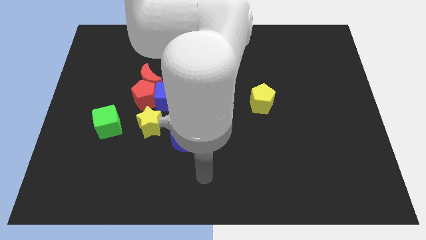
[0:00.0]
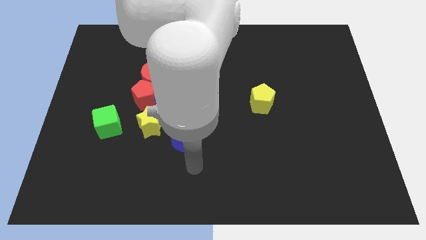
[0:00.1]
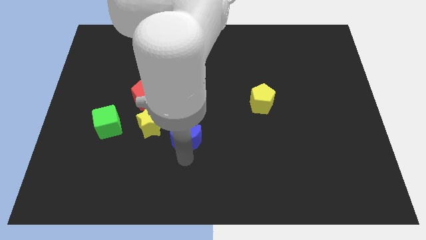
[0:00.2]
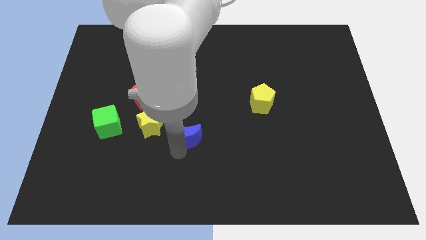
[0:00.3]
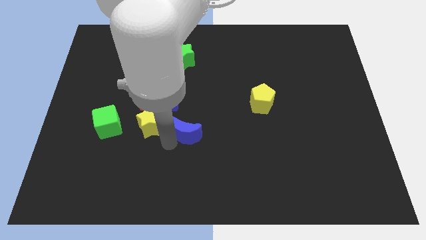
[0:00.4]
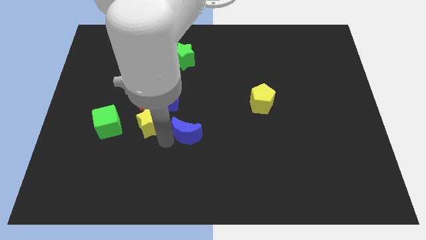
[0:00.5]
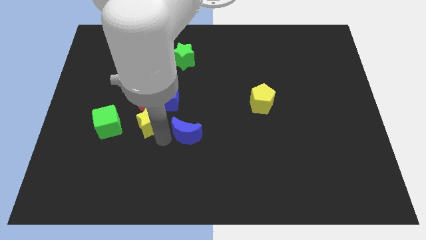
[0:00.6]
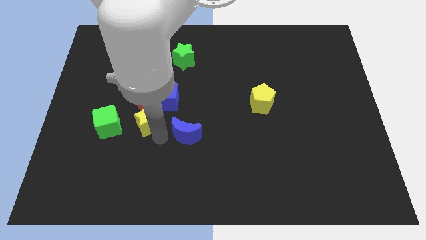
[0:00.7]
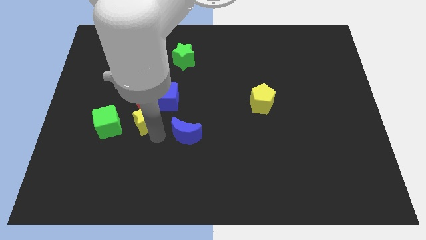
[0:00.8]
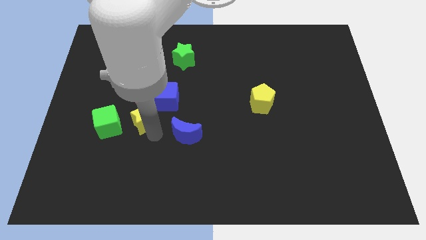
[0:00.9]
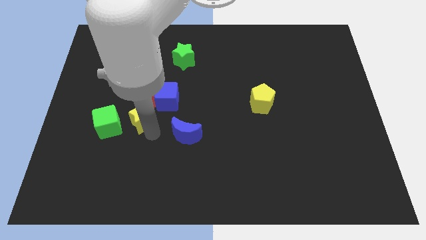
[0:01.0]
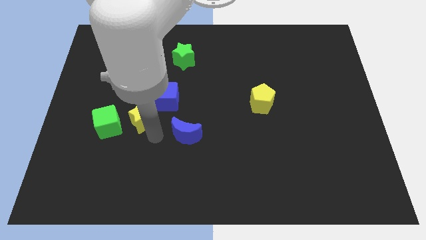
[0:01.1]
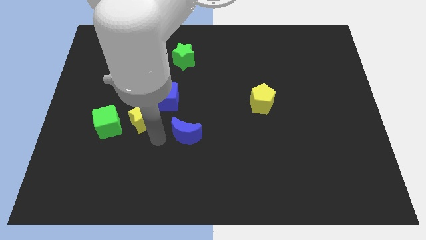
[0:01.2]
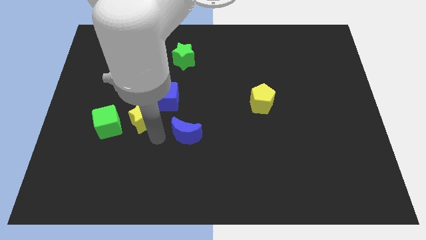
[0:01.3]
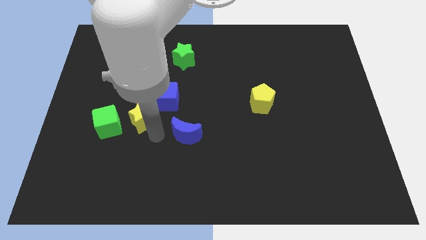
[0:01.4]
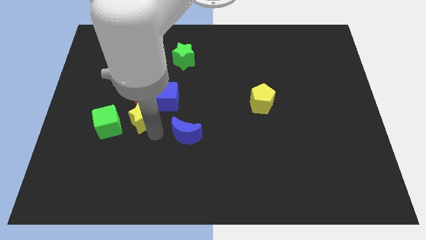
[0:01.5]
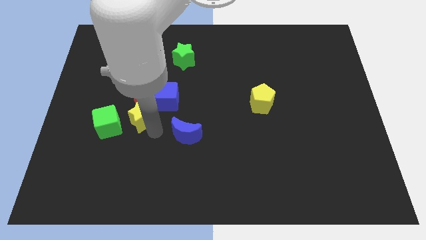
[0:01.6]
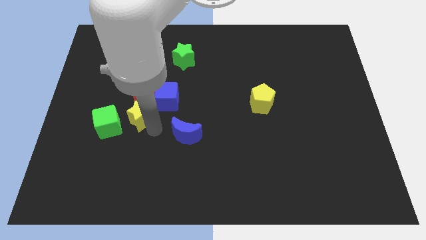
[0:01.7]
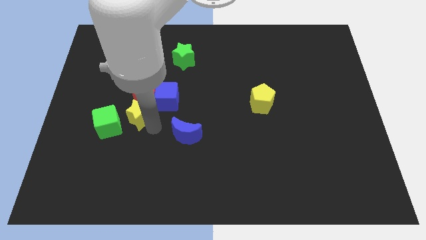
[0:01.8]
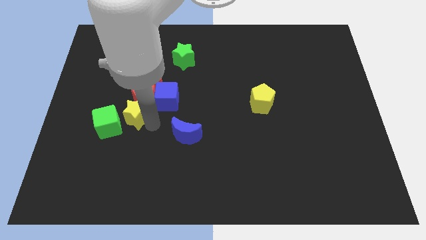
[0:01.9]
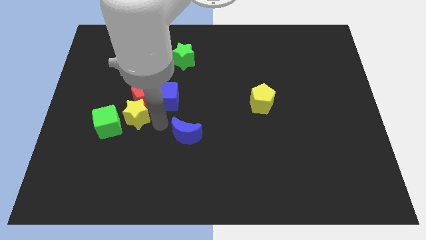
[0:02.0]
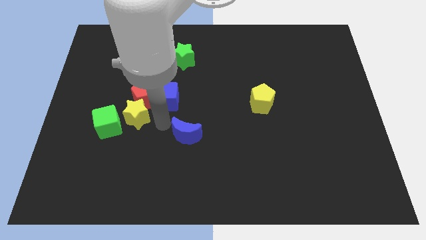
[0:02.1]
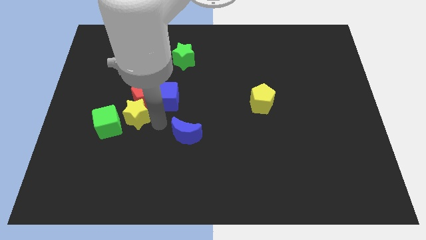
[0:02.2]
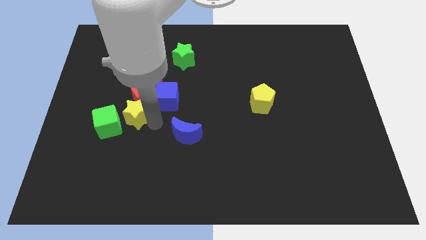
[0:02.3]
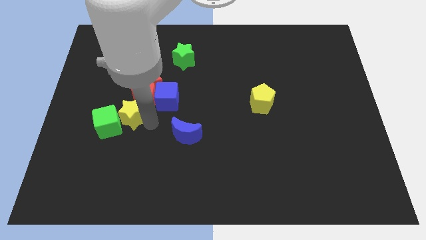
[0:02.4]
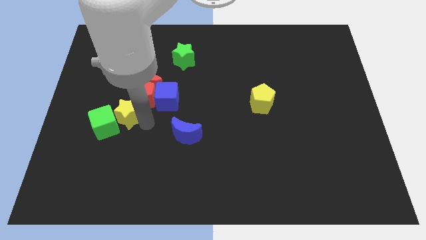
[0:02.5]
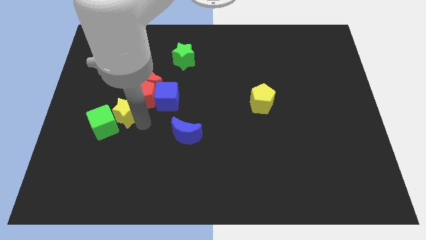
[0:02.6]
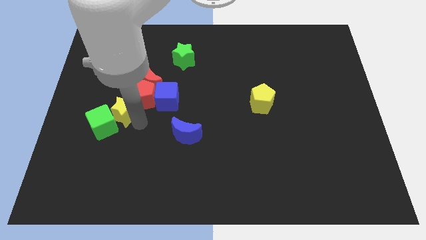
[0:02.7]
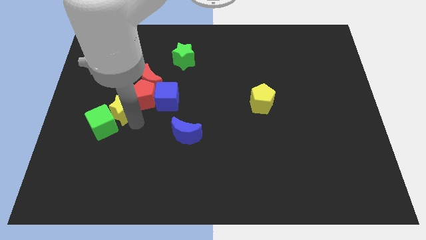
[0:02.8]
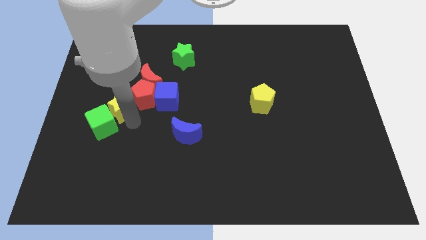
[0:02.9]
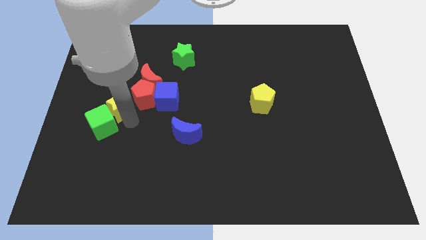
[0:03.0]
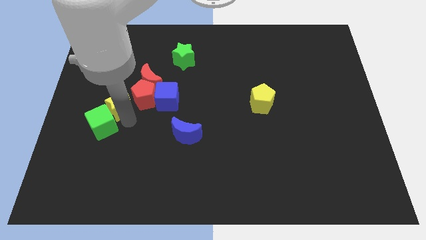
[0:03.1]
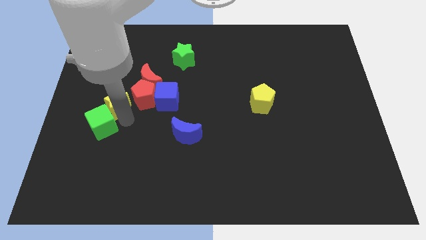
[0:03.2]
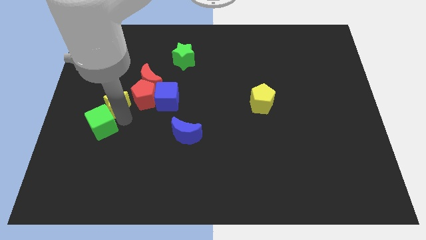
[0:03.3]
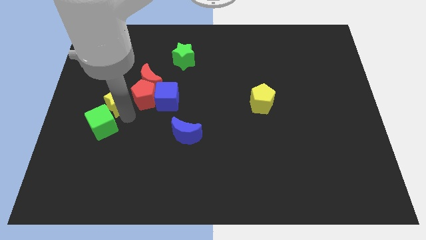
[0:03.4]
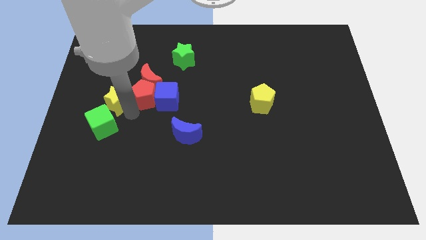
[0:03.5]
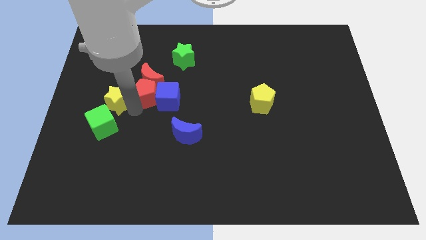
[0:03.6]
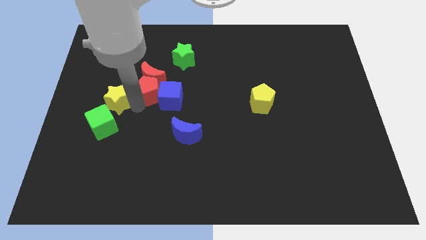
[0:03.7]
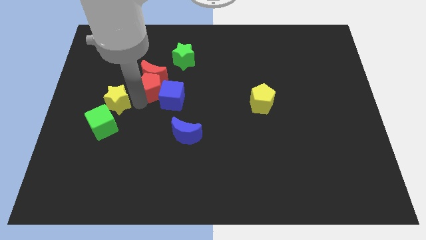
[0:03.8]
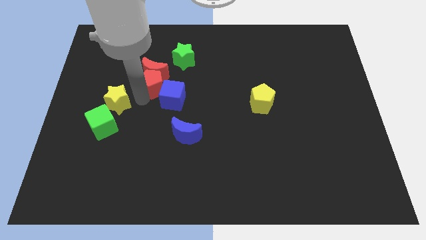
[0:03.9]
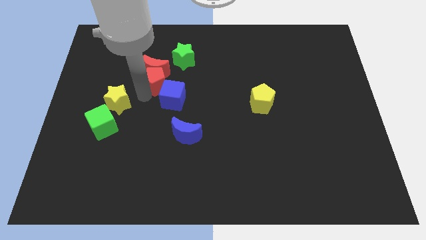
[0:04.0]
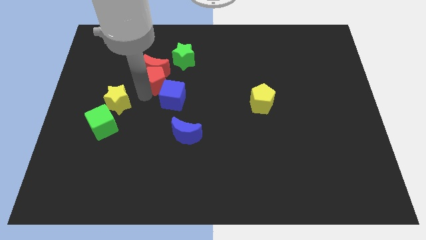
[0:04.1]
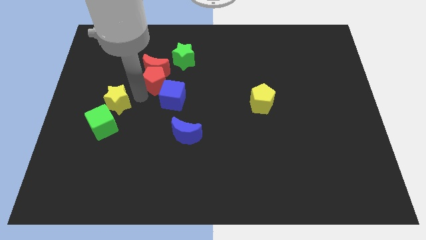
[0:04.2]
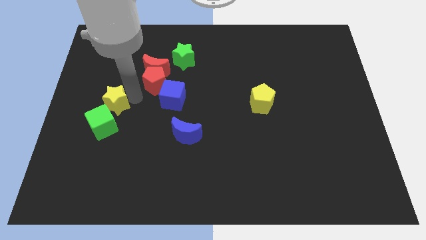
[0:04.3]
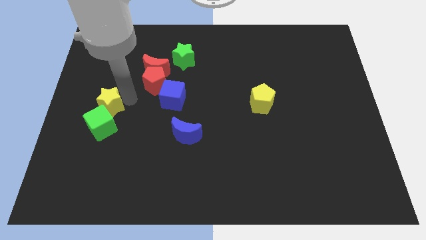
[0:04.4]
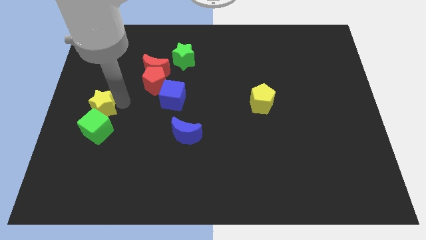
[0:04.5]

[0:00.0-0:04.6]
slide the yellow star to the left side of the board

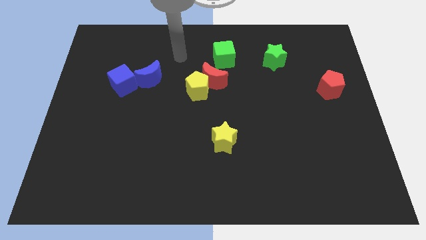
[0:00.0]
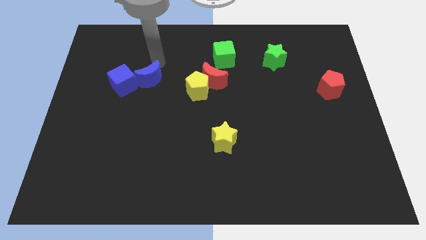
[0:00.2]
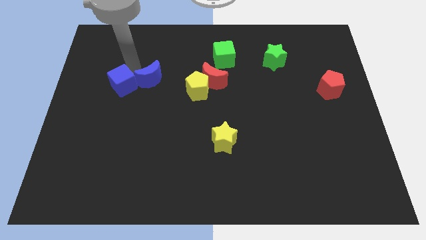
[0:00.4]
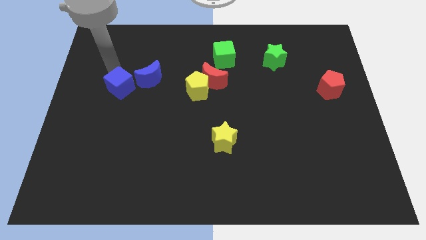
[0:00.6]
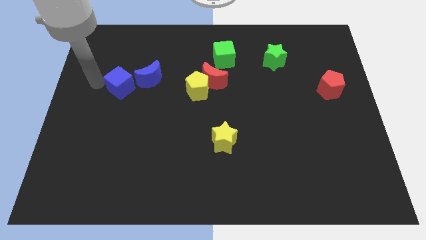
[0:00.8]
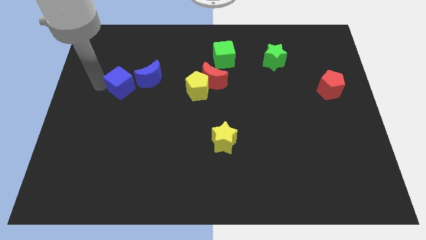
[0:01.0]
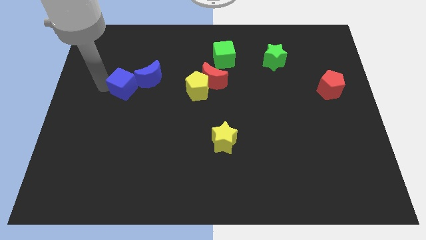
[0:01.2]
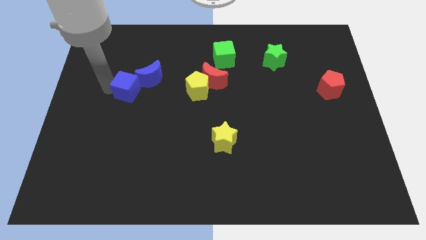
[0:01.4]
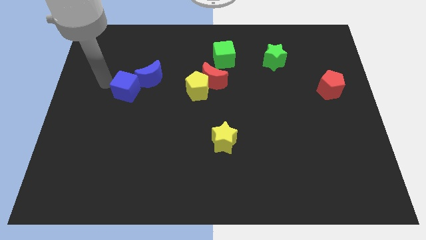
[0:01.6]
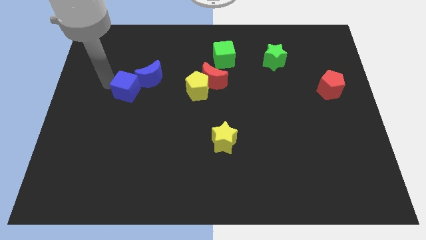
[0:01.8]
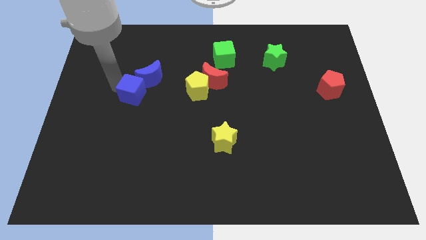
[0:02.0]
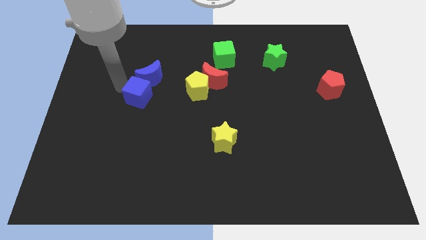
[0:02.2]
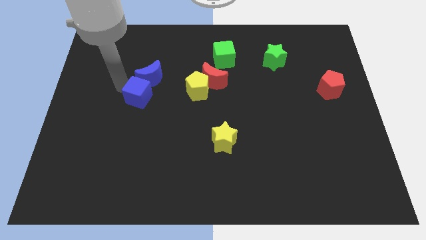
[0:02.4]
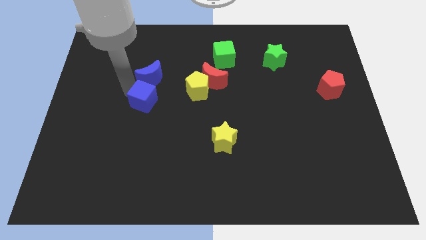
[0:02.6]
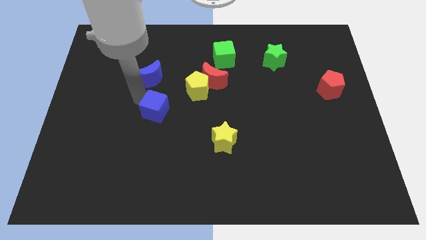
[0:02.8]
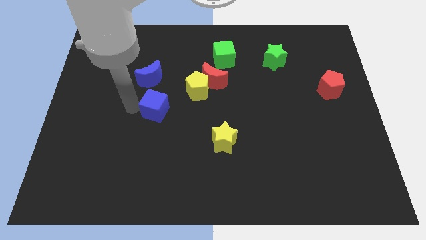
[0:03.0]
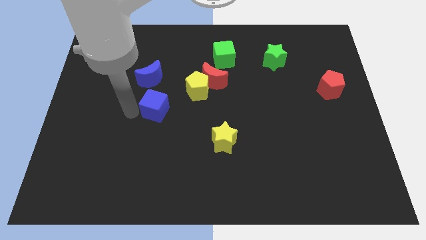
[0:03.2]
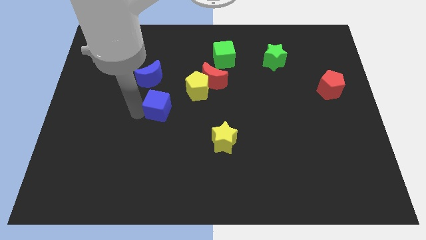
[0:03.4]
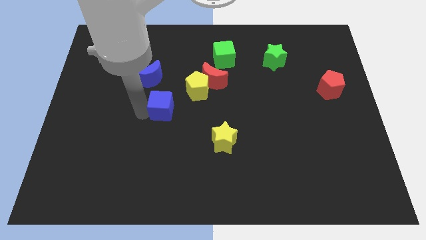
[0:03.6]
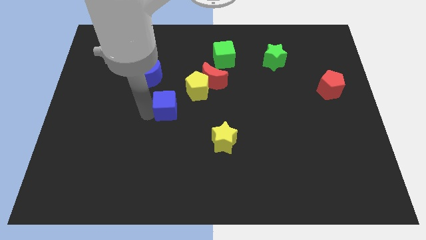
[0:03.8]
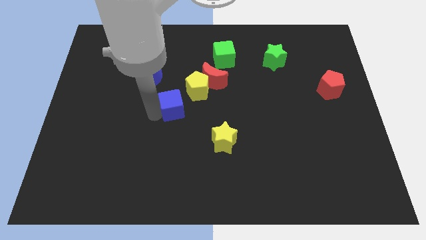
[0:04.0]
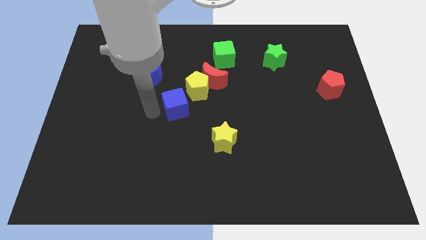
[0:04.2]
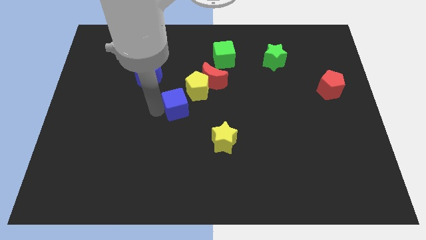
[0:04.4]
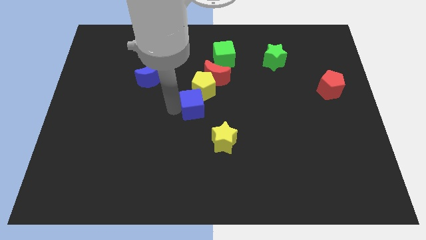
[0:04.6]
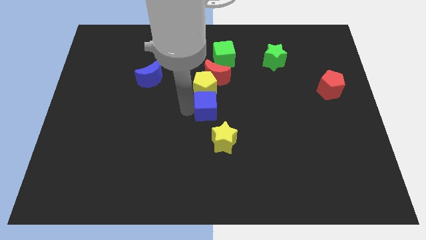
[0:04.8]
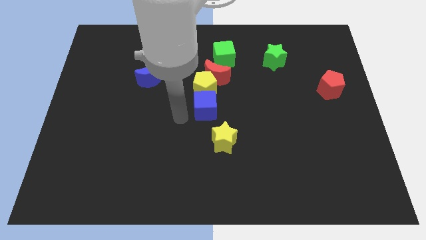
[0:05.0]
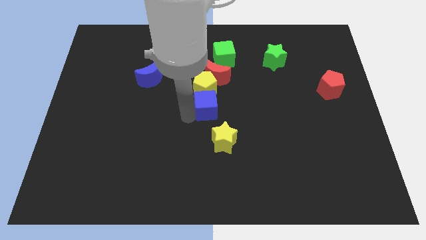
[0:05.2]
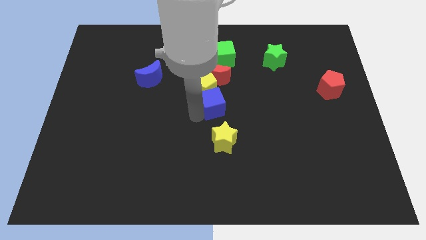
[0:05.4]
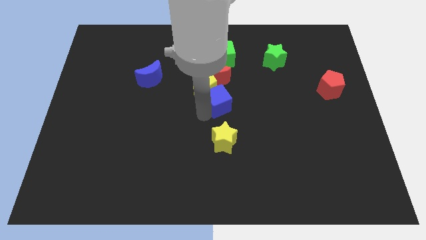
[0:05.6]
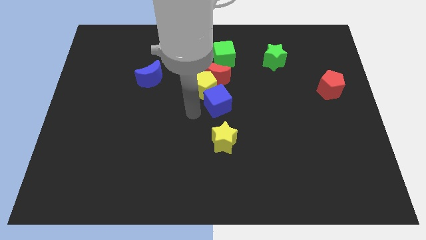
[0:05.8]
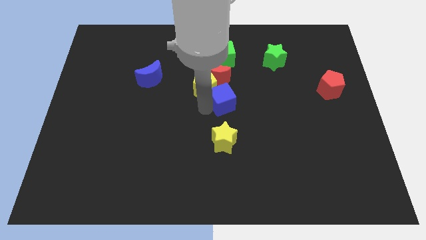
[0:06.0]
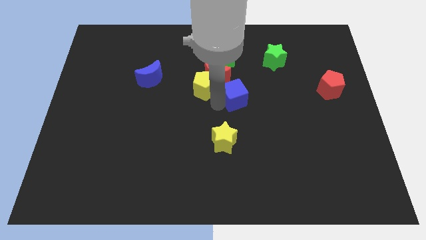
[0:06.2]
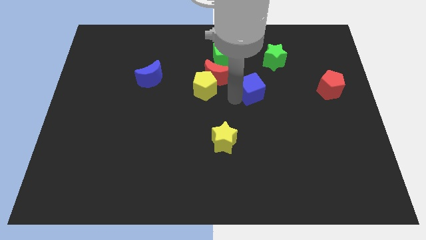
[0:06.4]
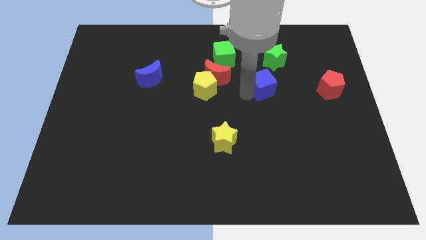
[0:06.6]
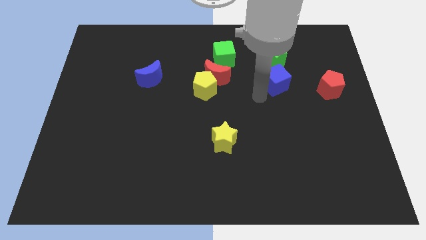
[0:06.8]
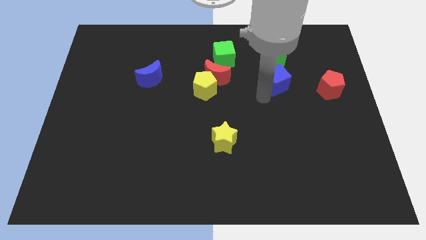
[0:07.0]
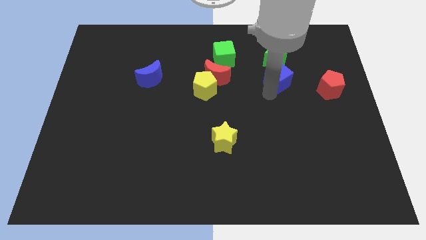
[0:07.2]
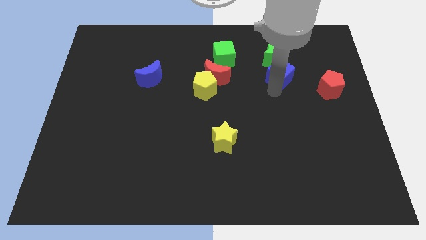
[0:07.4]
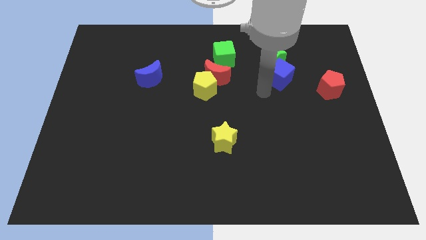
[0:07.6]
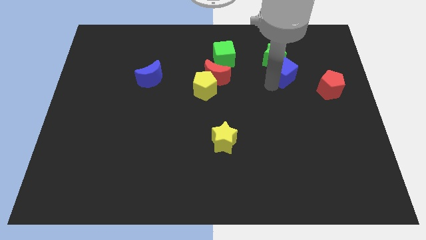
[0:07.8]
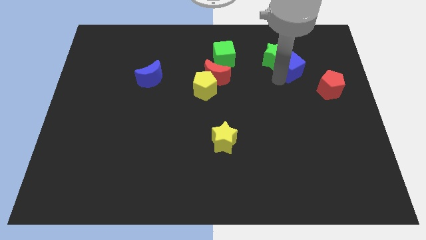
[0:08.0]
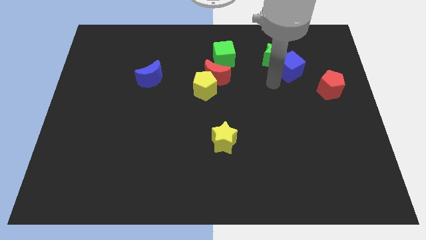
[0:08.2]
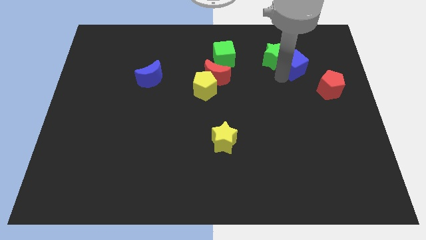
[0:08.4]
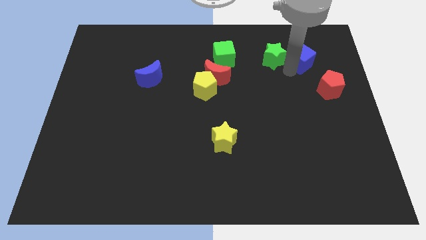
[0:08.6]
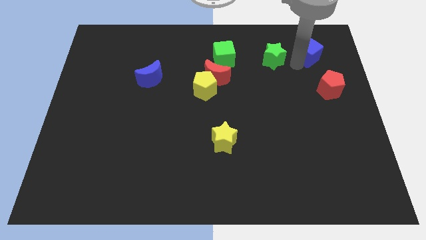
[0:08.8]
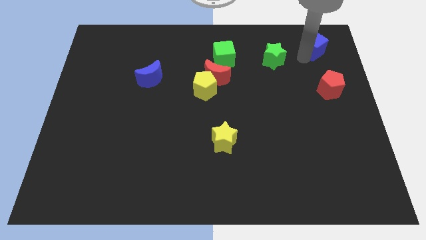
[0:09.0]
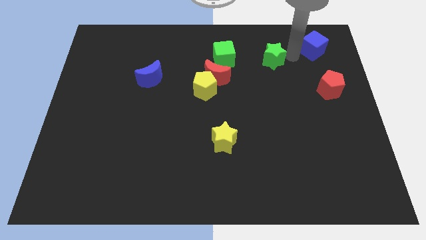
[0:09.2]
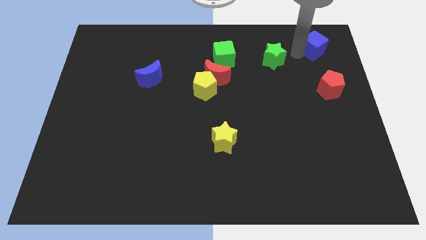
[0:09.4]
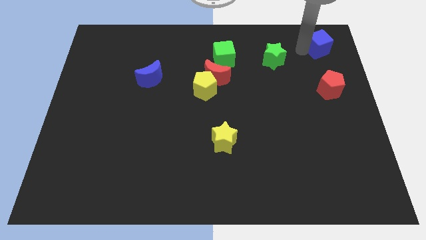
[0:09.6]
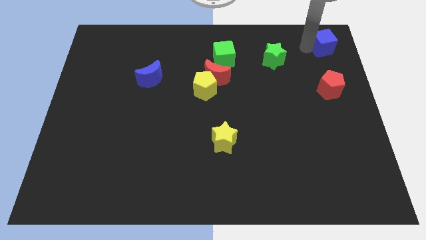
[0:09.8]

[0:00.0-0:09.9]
slide the blue cube to the top right of the board
